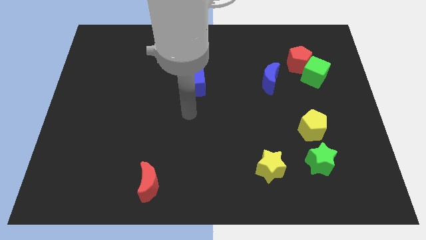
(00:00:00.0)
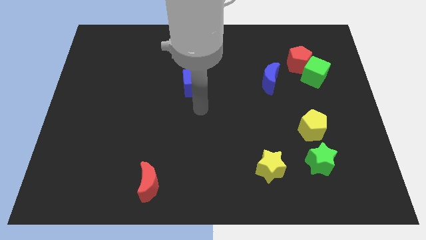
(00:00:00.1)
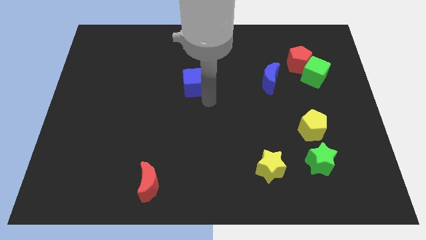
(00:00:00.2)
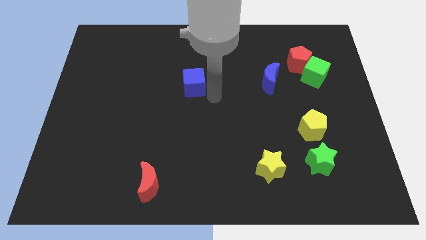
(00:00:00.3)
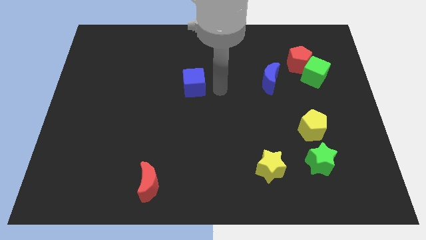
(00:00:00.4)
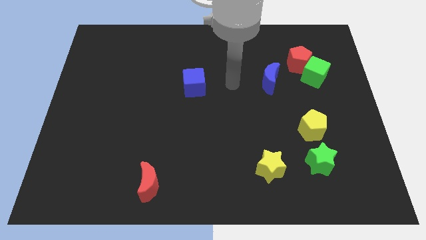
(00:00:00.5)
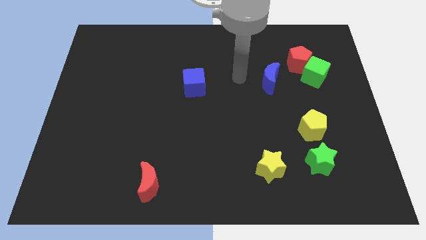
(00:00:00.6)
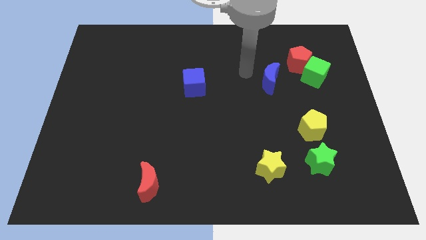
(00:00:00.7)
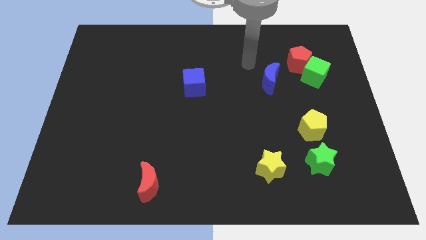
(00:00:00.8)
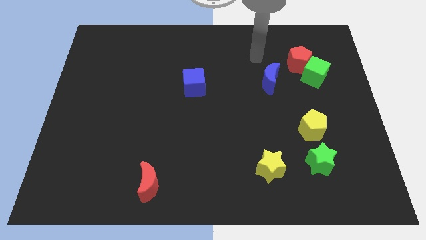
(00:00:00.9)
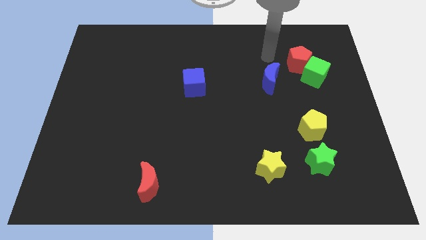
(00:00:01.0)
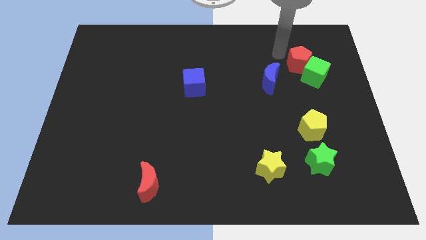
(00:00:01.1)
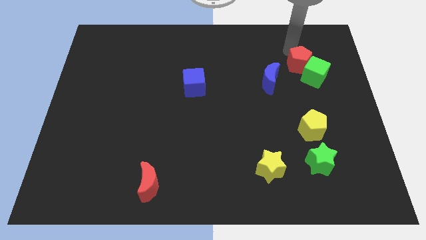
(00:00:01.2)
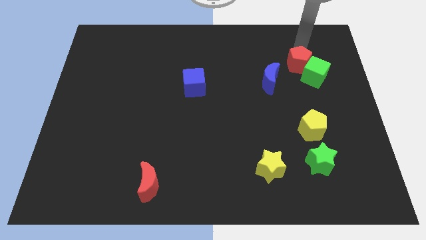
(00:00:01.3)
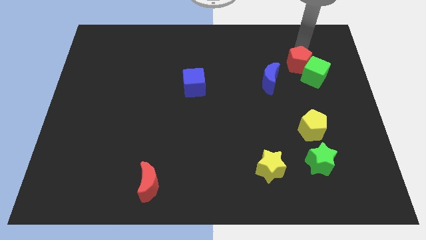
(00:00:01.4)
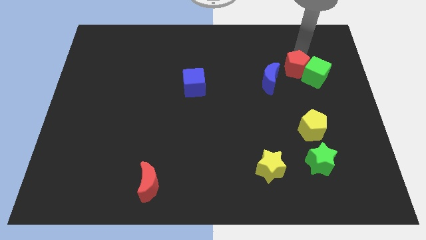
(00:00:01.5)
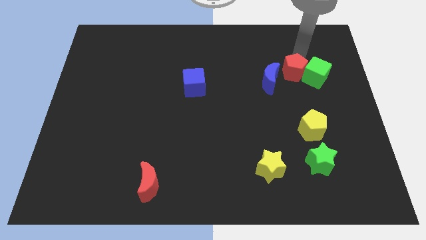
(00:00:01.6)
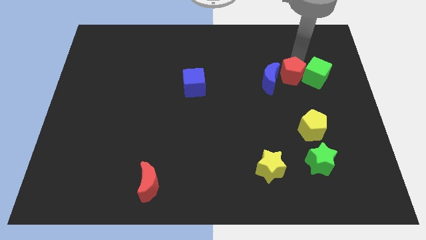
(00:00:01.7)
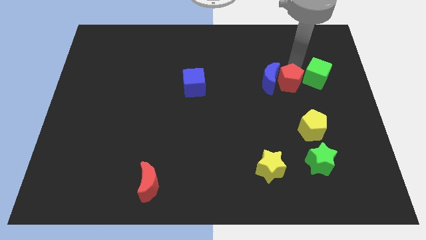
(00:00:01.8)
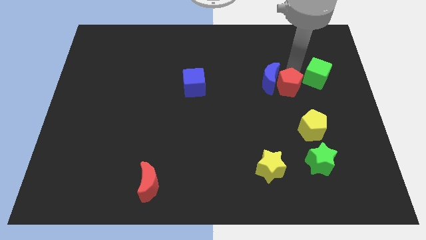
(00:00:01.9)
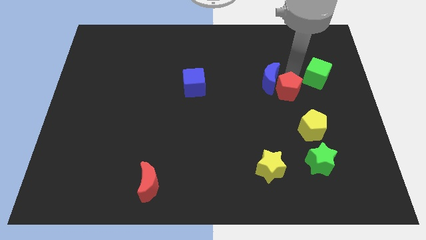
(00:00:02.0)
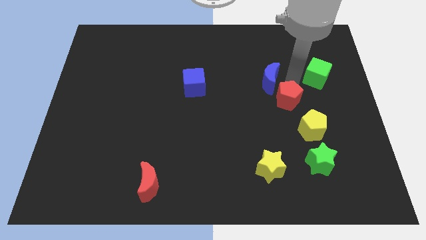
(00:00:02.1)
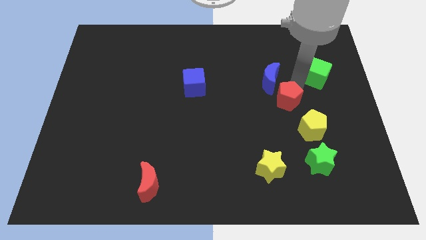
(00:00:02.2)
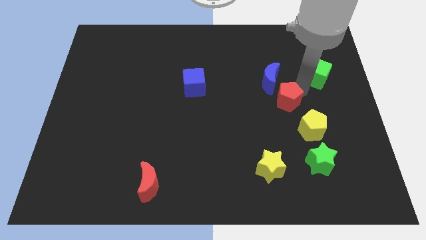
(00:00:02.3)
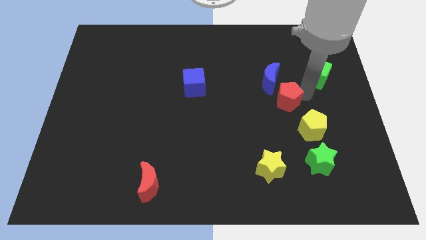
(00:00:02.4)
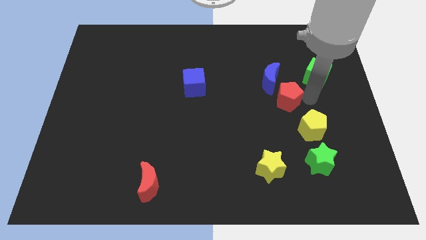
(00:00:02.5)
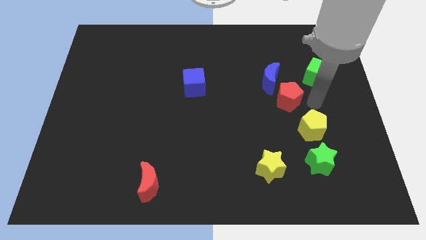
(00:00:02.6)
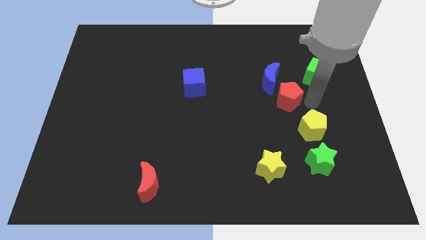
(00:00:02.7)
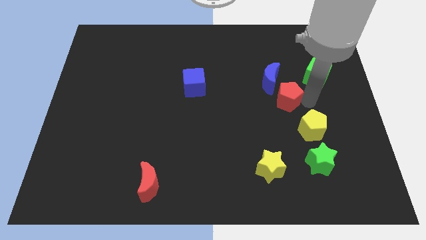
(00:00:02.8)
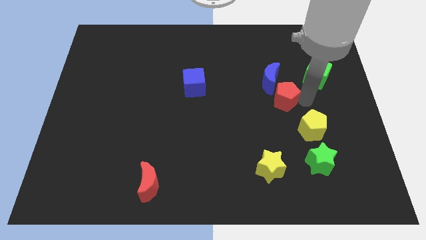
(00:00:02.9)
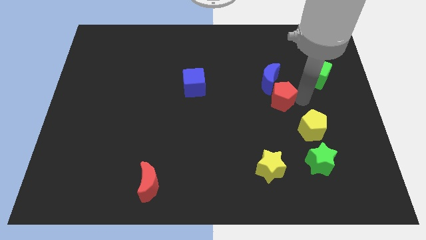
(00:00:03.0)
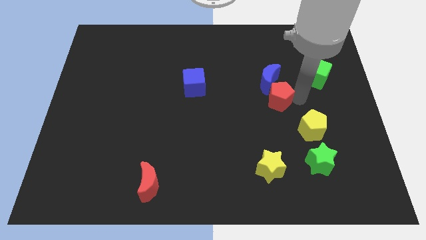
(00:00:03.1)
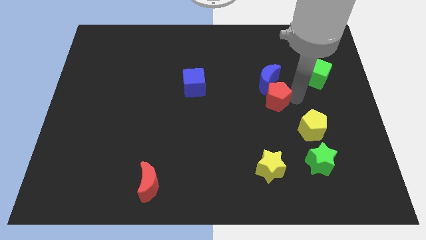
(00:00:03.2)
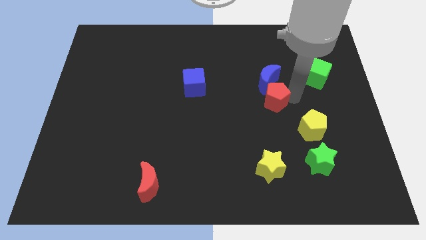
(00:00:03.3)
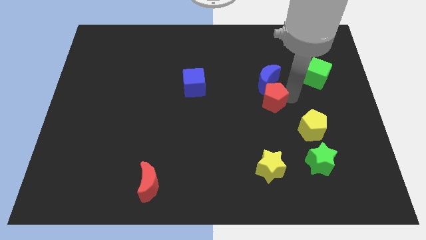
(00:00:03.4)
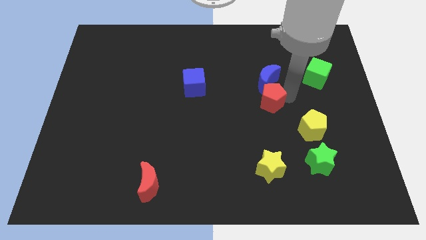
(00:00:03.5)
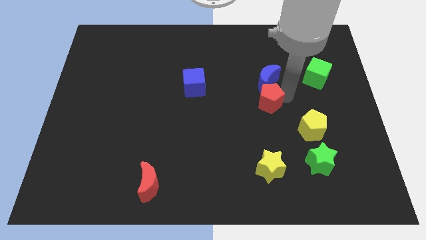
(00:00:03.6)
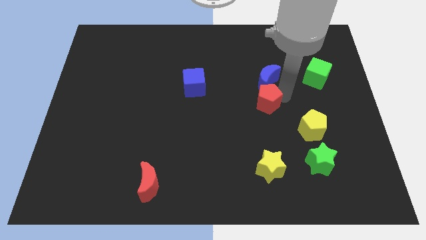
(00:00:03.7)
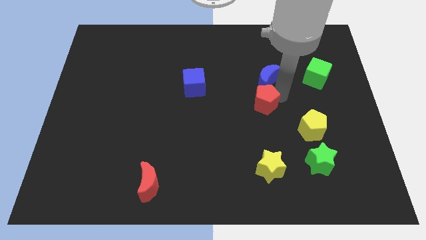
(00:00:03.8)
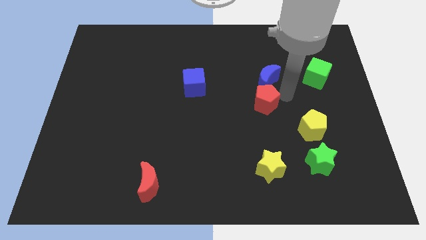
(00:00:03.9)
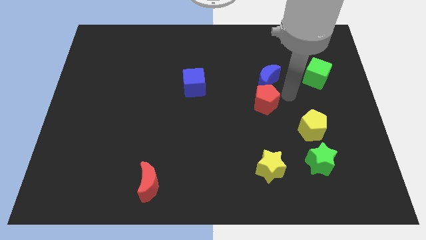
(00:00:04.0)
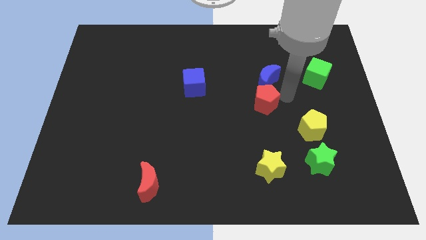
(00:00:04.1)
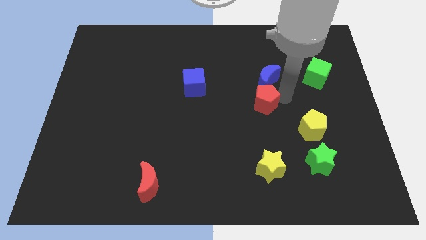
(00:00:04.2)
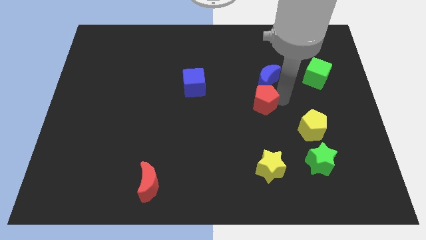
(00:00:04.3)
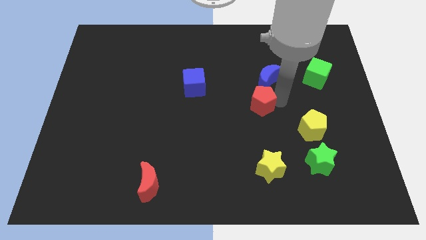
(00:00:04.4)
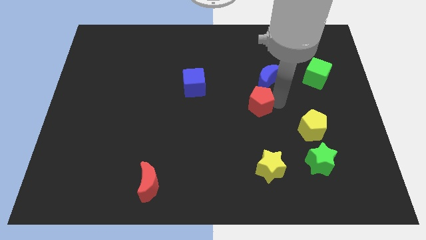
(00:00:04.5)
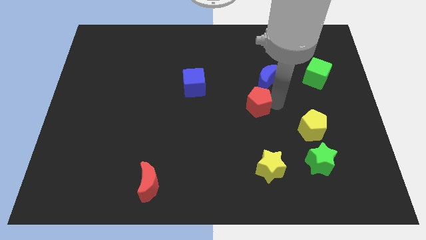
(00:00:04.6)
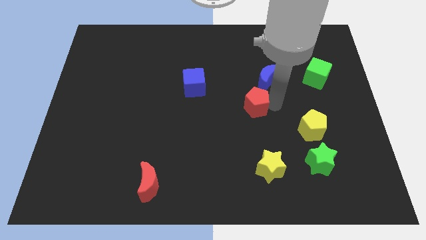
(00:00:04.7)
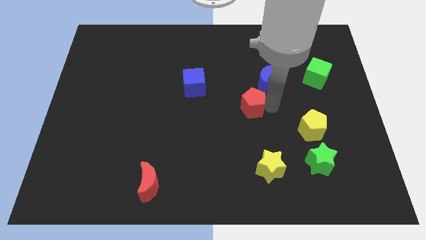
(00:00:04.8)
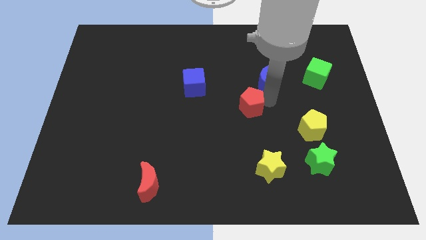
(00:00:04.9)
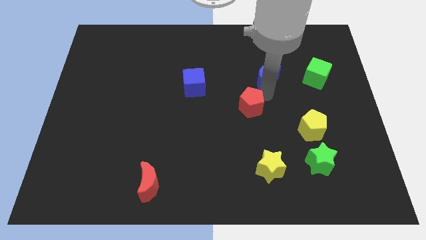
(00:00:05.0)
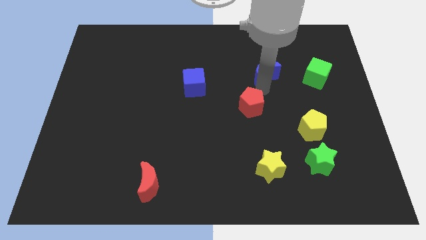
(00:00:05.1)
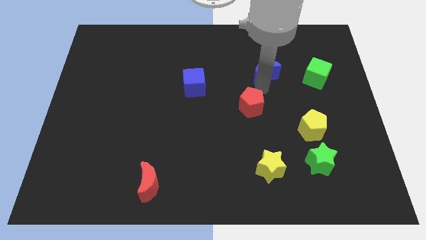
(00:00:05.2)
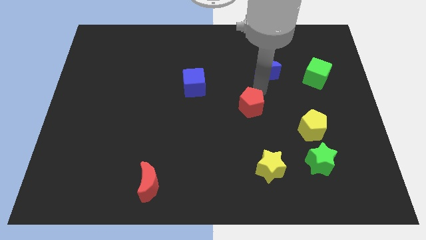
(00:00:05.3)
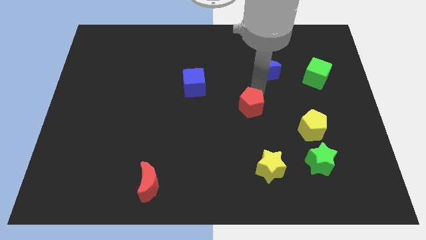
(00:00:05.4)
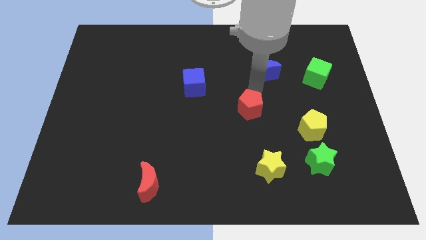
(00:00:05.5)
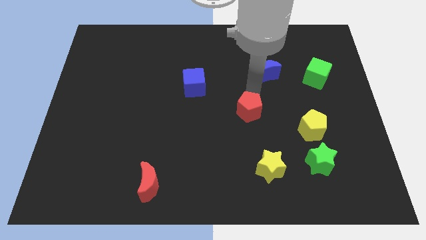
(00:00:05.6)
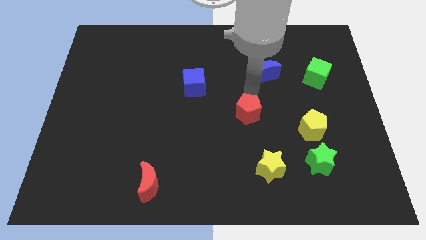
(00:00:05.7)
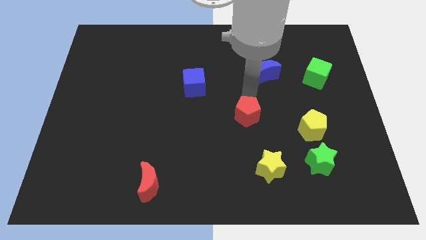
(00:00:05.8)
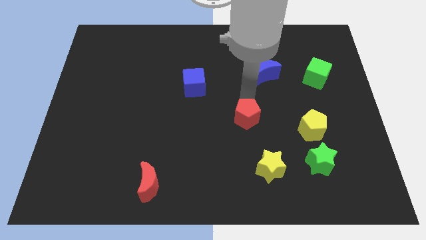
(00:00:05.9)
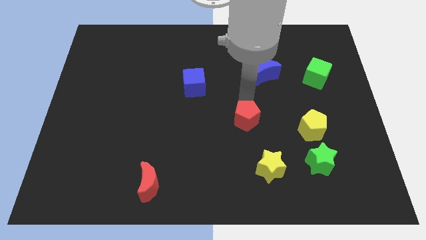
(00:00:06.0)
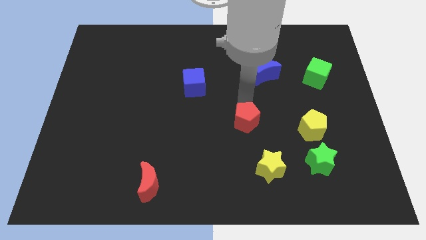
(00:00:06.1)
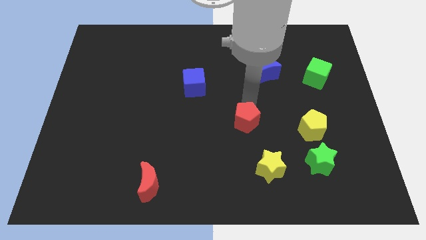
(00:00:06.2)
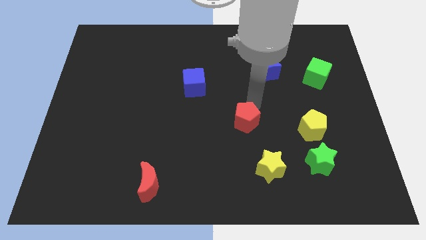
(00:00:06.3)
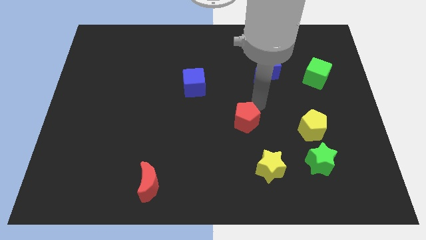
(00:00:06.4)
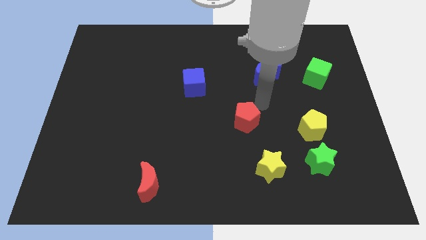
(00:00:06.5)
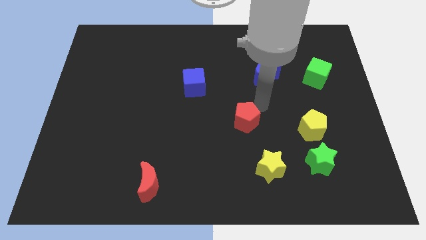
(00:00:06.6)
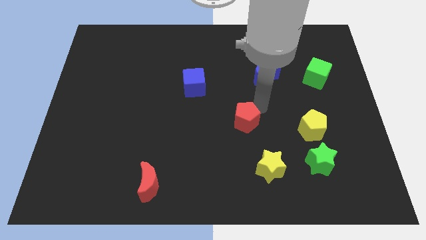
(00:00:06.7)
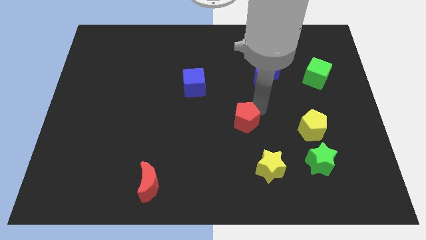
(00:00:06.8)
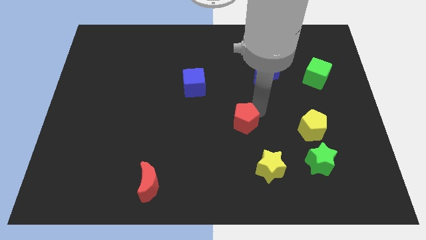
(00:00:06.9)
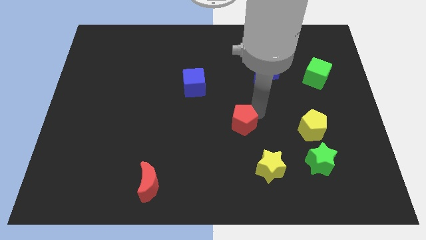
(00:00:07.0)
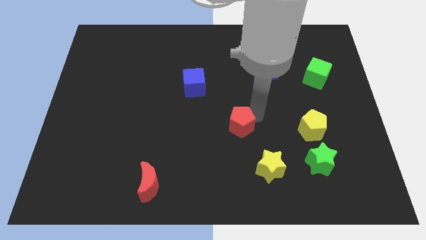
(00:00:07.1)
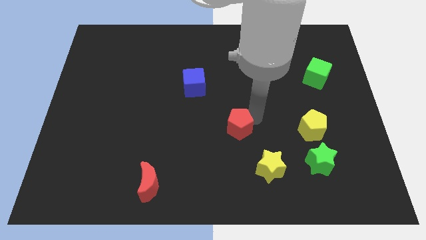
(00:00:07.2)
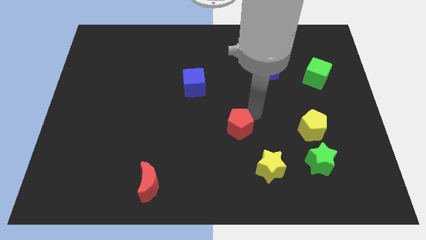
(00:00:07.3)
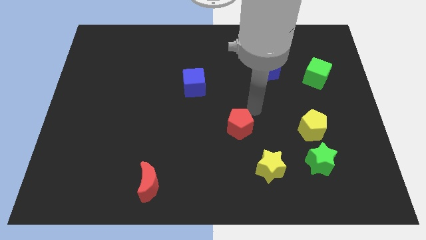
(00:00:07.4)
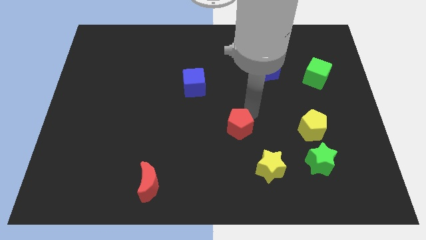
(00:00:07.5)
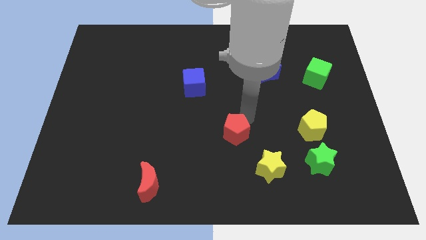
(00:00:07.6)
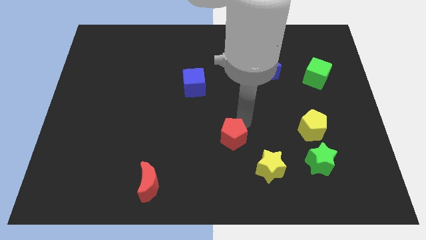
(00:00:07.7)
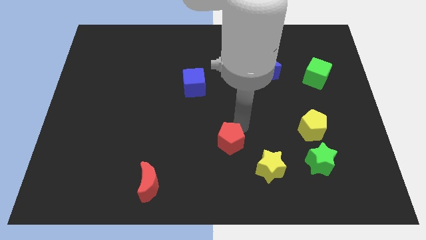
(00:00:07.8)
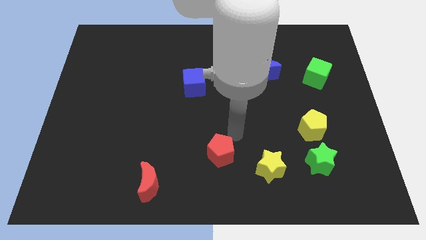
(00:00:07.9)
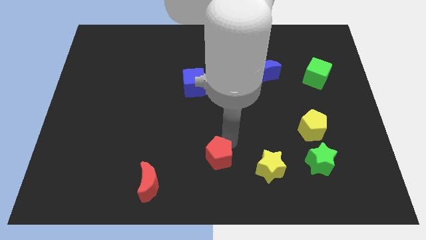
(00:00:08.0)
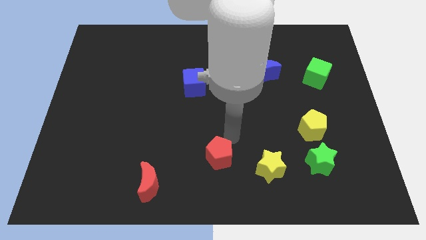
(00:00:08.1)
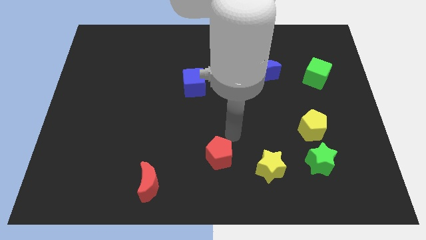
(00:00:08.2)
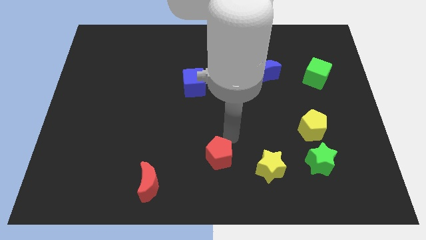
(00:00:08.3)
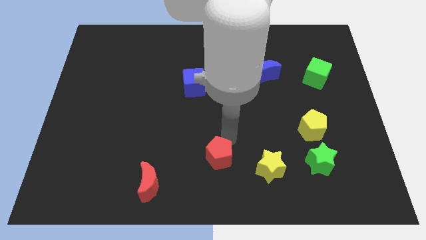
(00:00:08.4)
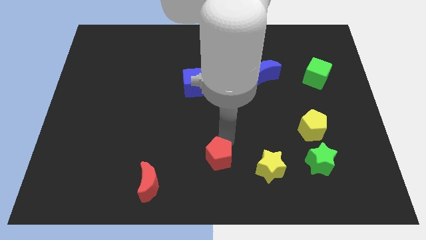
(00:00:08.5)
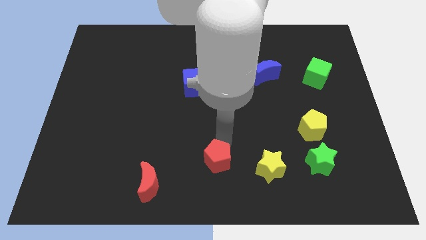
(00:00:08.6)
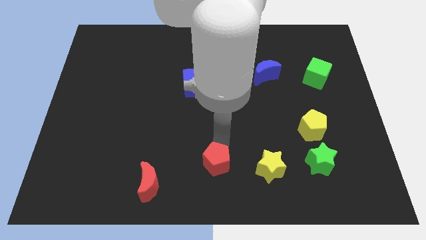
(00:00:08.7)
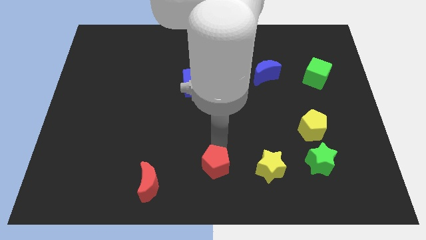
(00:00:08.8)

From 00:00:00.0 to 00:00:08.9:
put the red pentagon just right of the red moon
